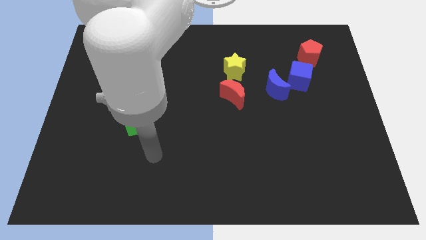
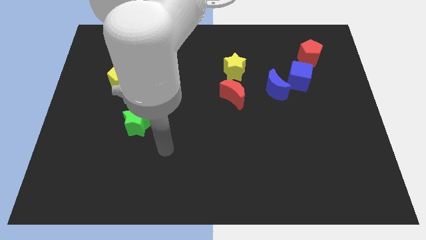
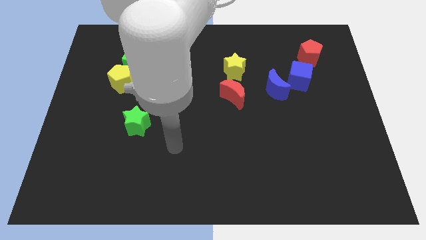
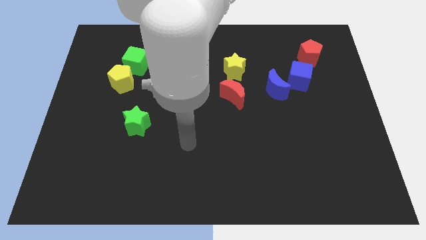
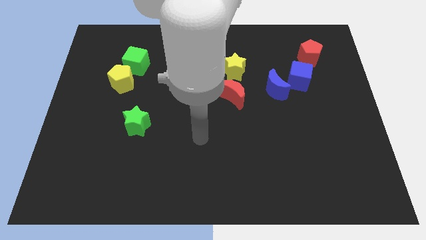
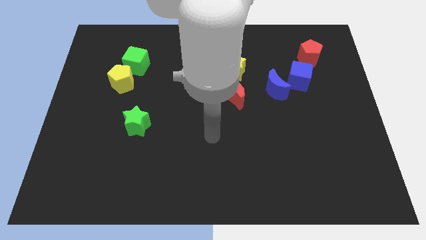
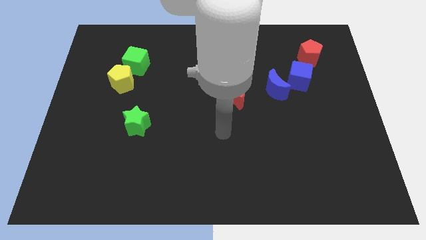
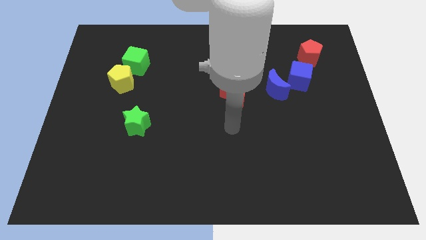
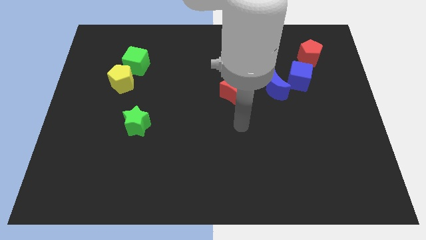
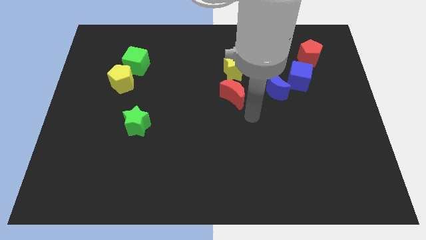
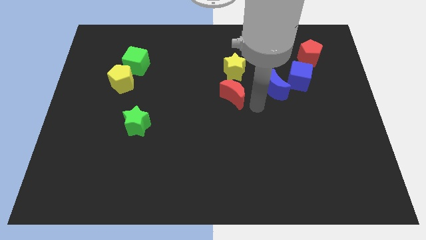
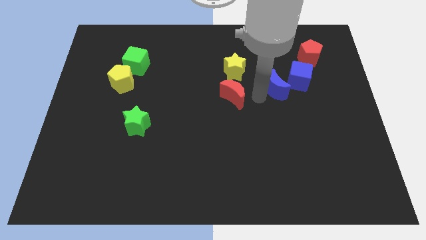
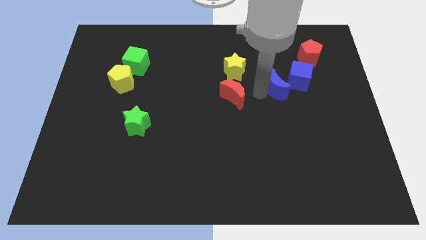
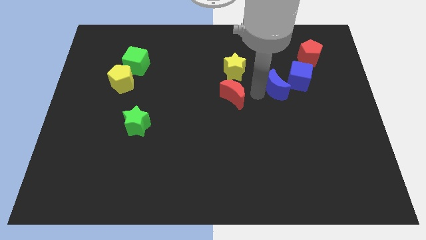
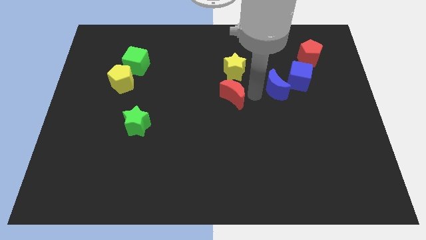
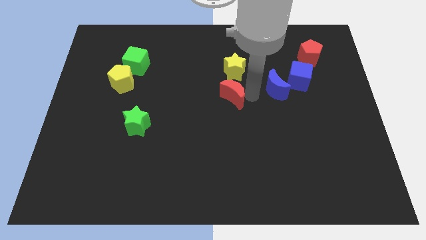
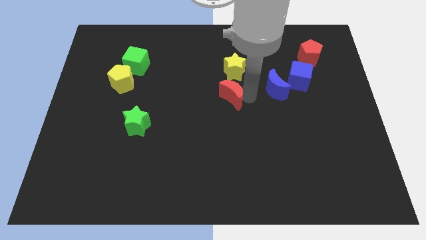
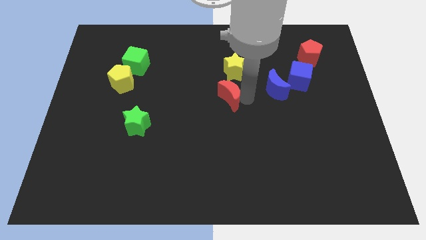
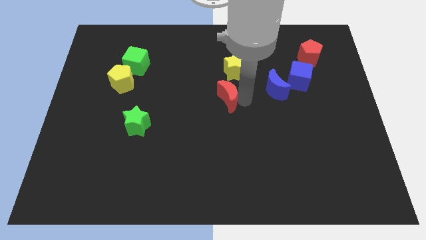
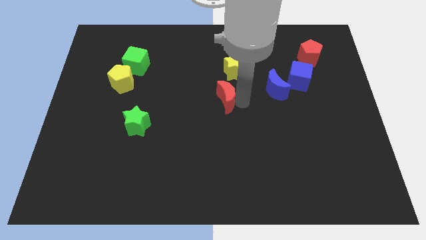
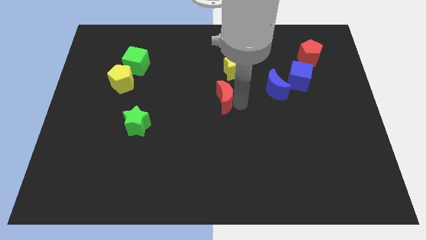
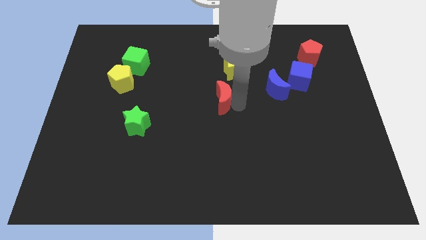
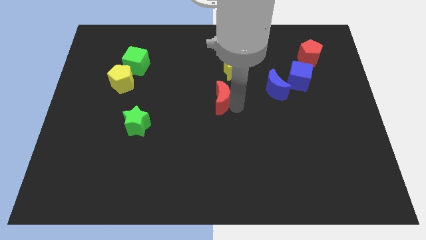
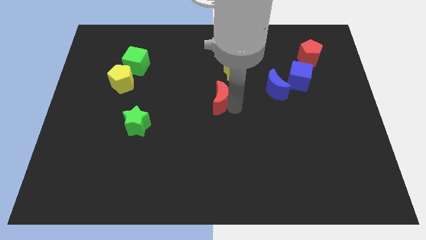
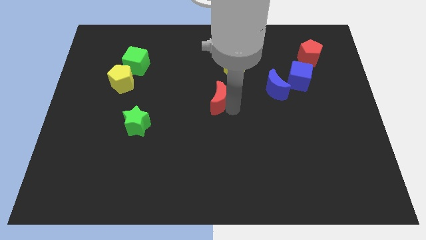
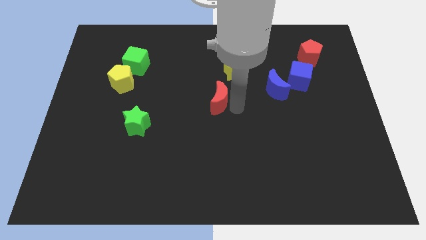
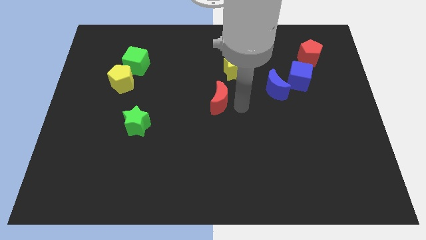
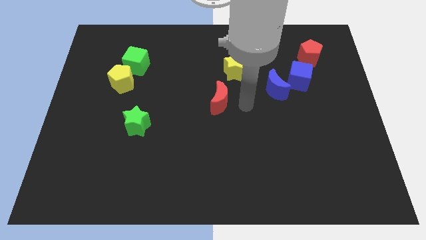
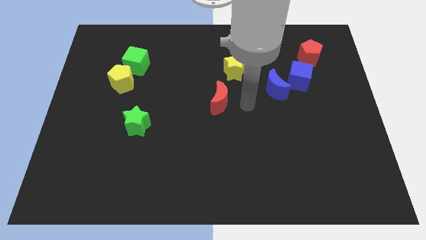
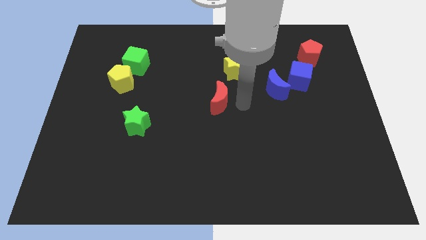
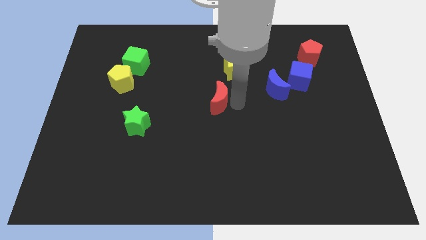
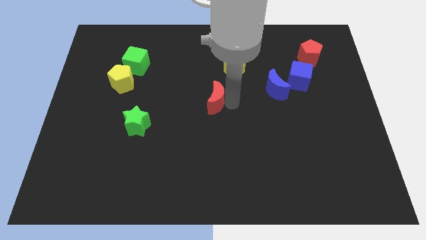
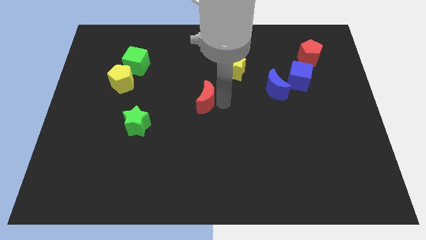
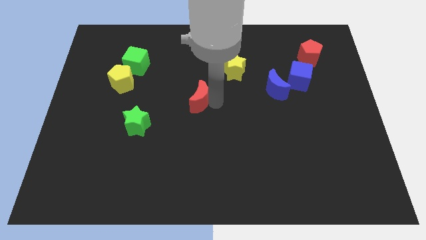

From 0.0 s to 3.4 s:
slightly push the red moon to the left

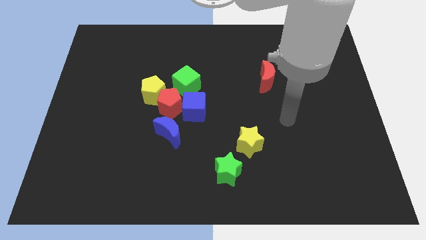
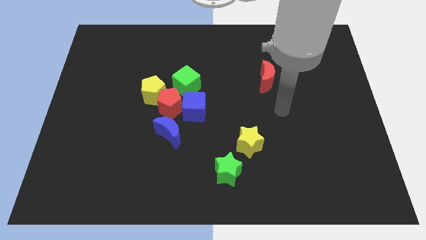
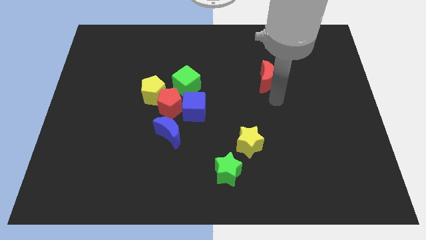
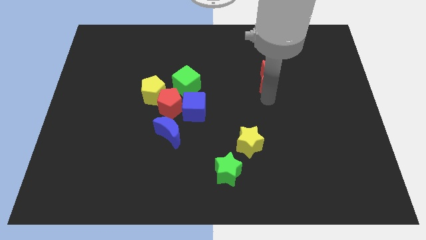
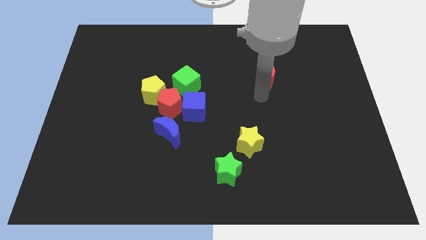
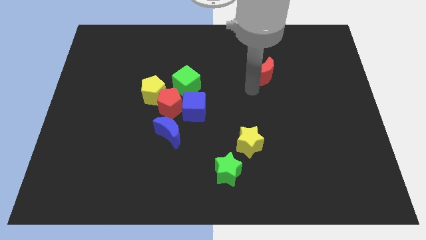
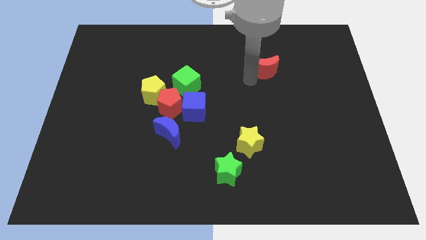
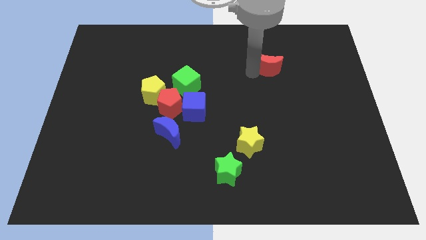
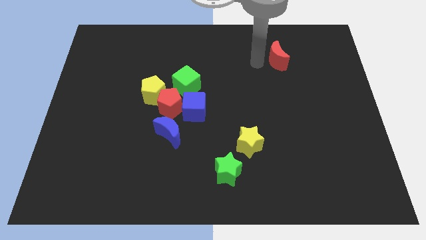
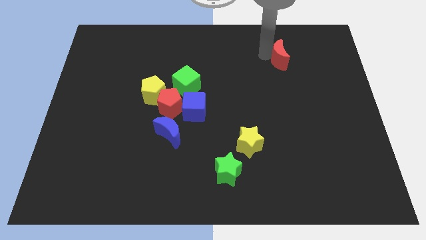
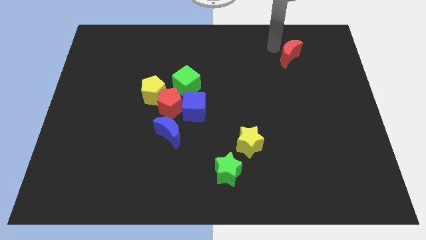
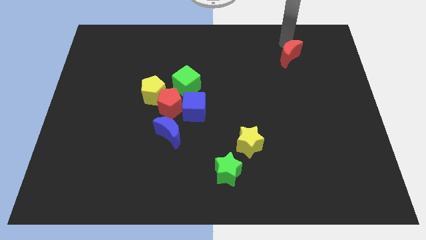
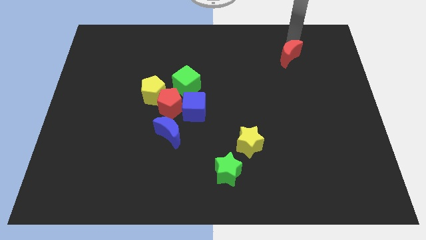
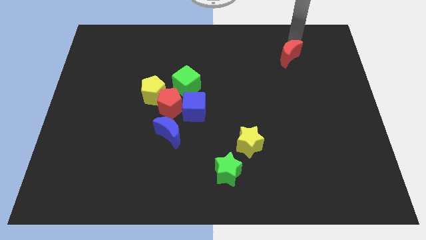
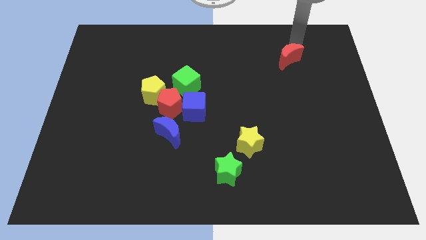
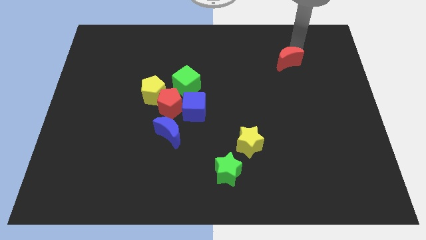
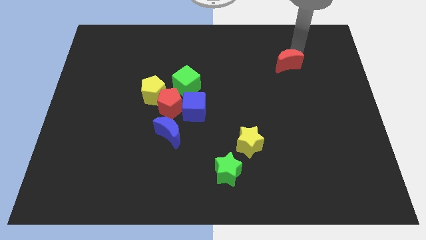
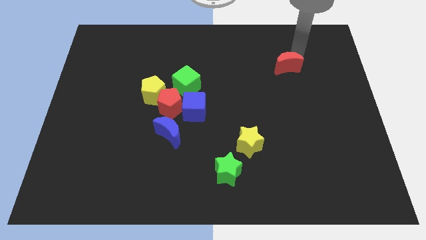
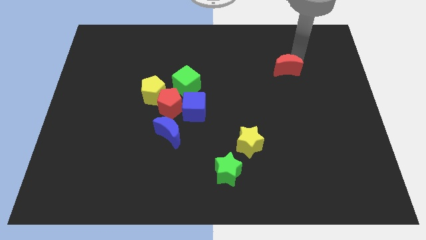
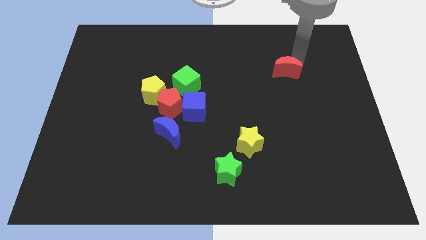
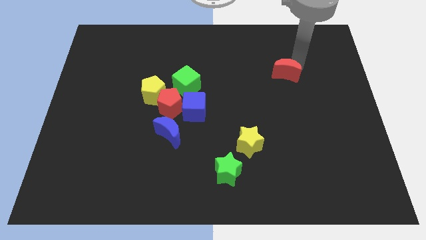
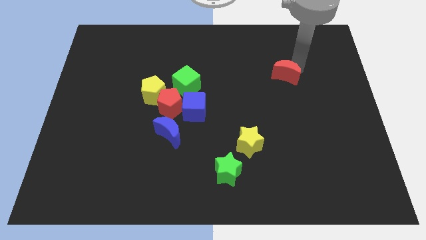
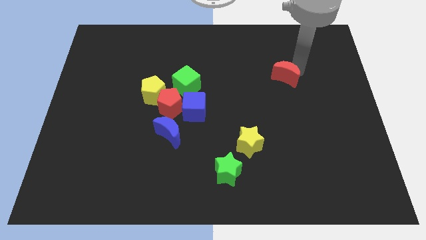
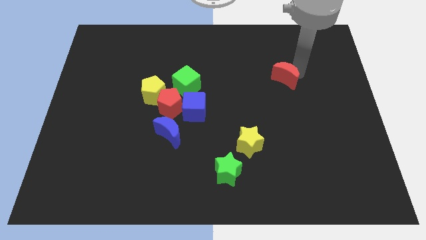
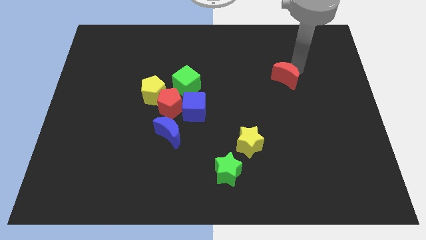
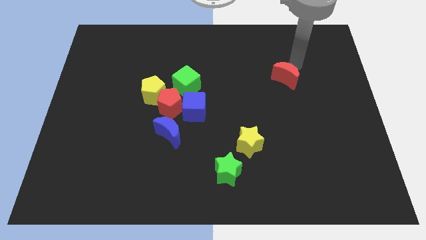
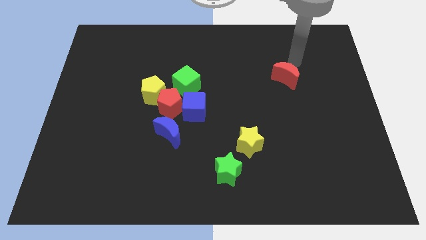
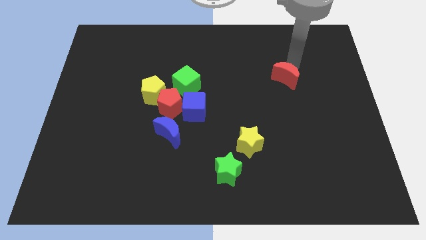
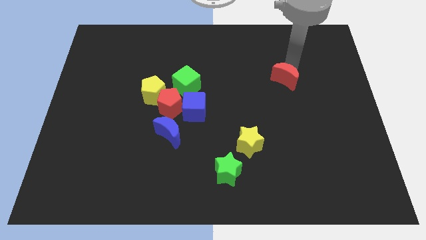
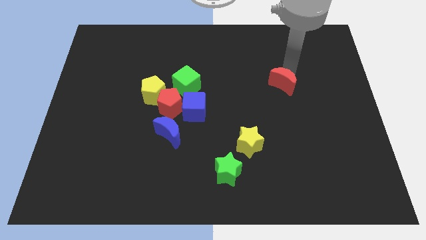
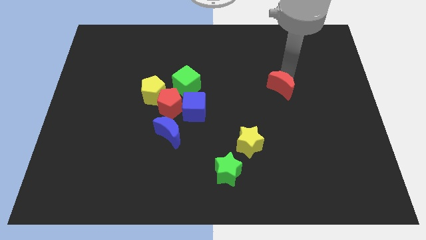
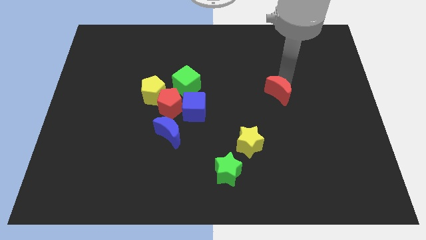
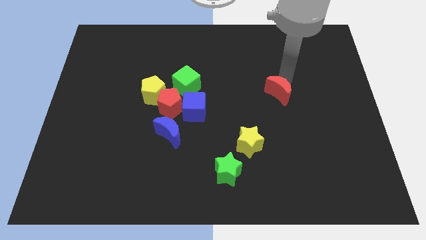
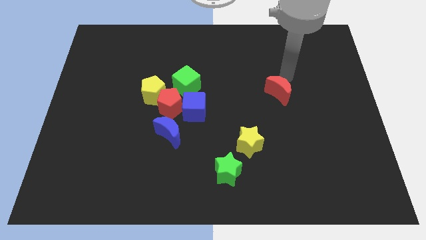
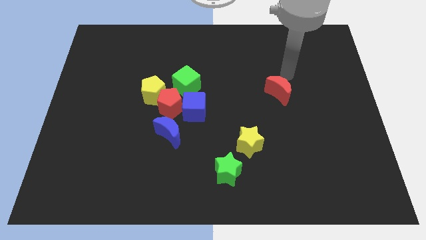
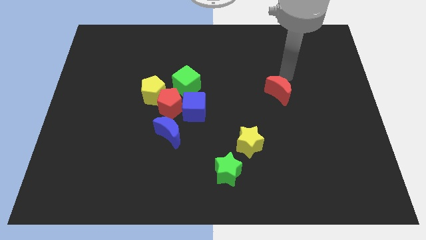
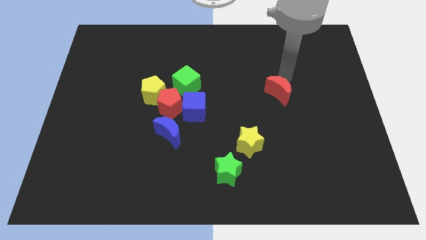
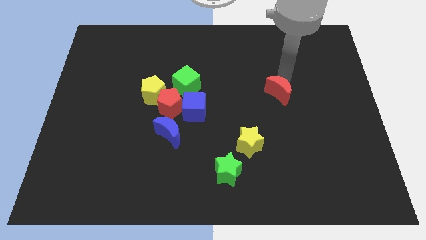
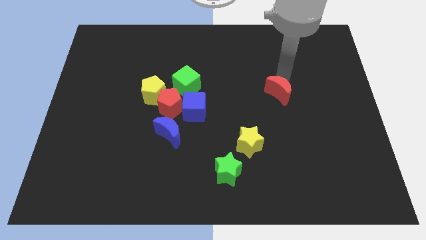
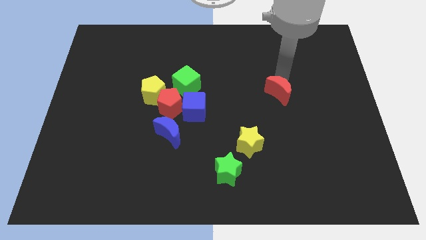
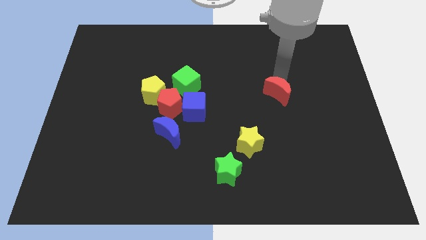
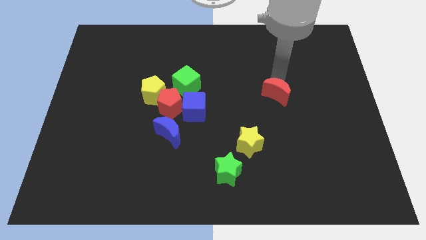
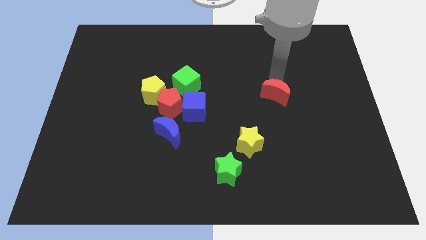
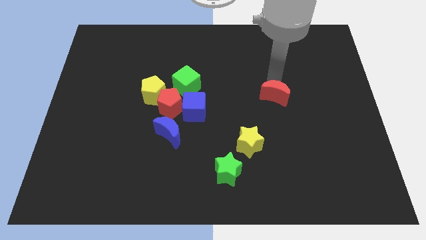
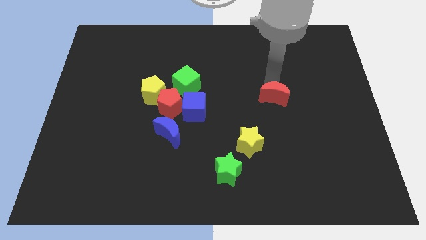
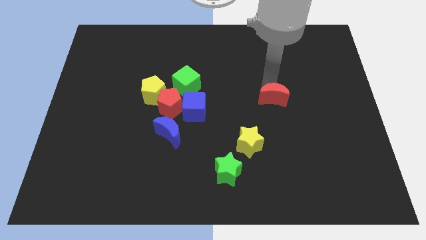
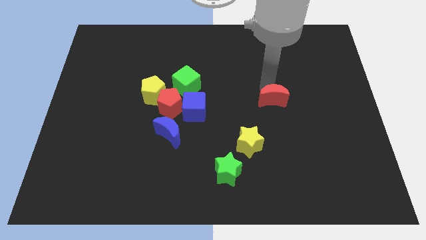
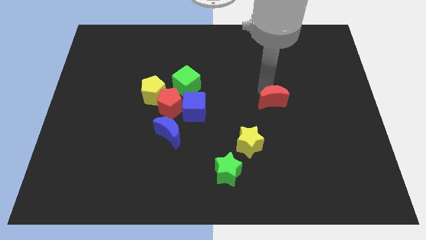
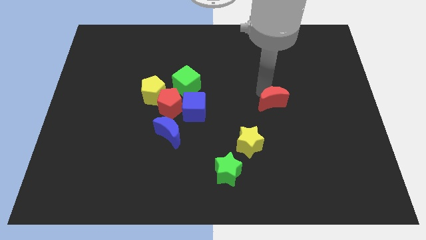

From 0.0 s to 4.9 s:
push the red moon downwards slightly
